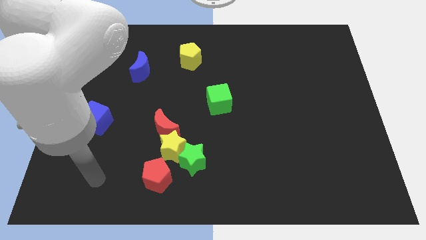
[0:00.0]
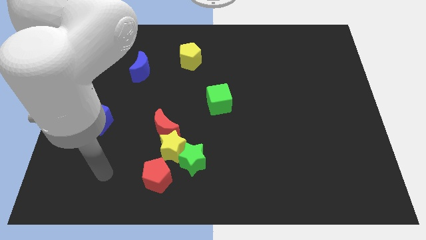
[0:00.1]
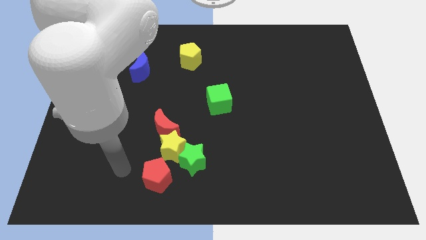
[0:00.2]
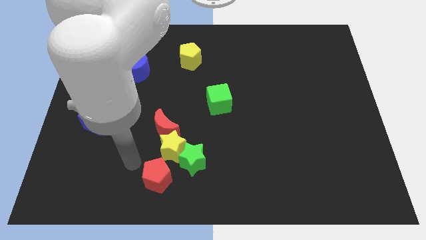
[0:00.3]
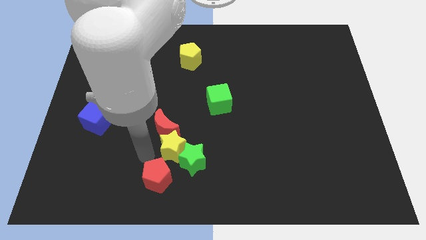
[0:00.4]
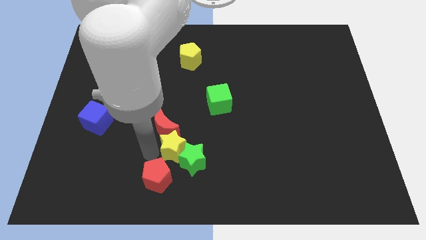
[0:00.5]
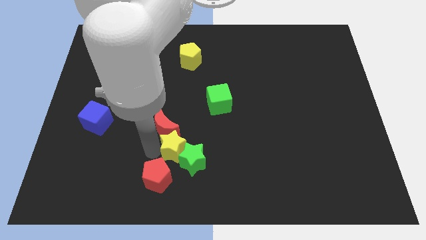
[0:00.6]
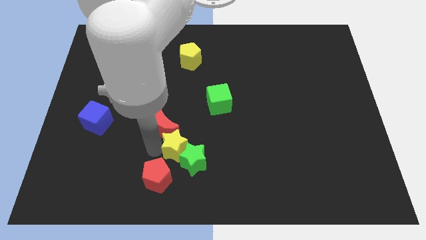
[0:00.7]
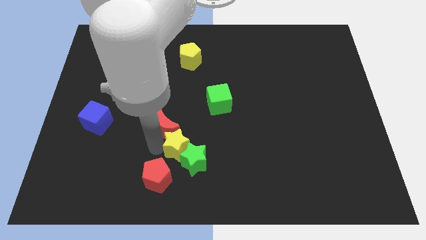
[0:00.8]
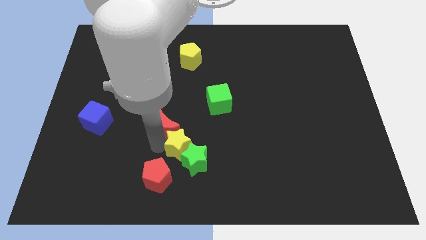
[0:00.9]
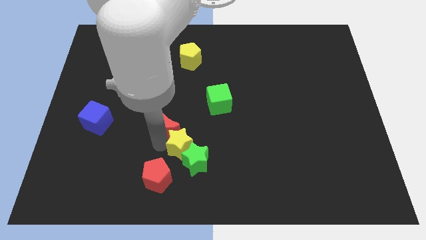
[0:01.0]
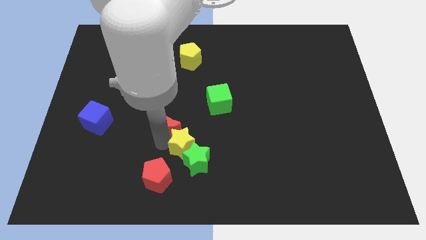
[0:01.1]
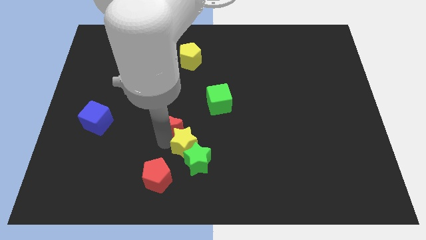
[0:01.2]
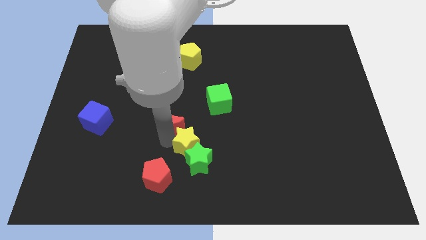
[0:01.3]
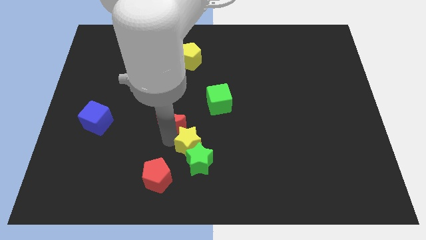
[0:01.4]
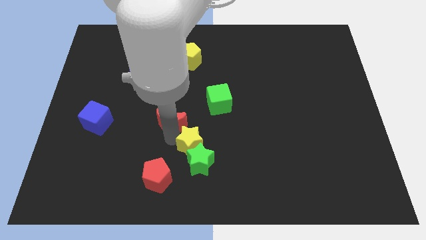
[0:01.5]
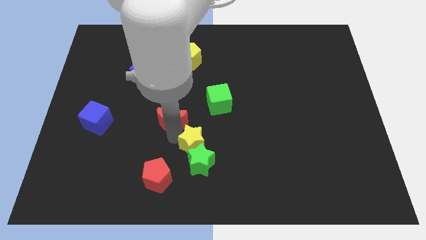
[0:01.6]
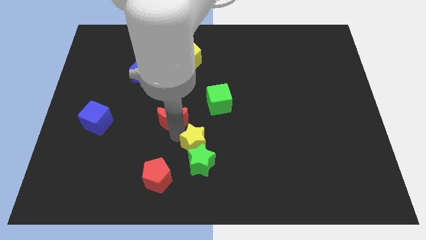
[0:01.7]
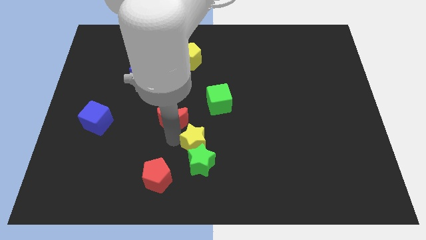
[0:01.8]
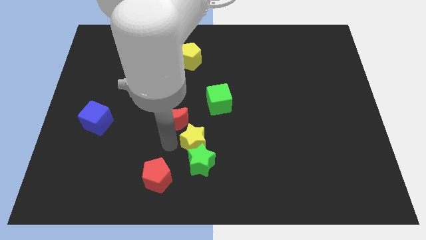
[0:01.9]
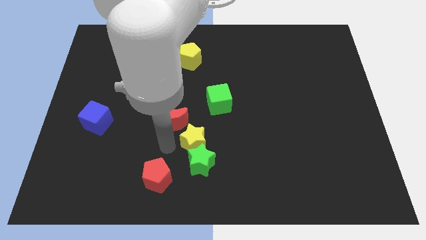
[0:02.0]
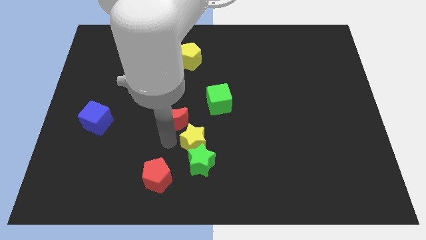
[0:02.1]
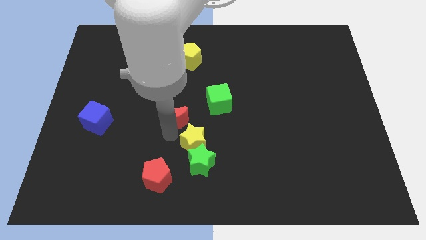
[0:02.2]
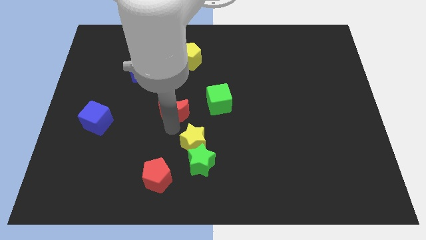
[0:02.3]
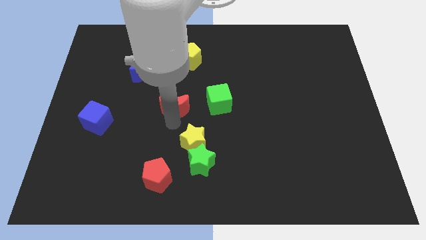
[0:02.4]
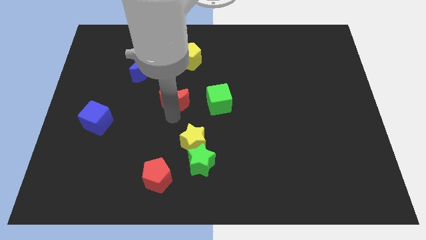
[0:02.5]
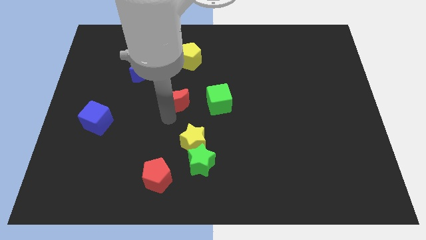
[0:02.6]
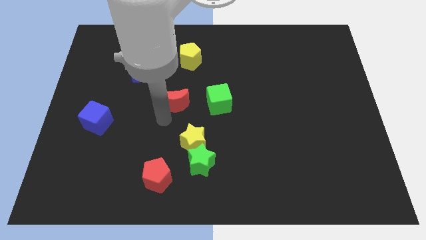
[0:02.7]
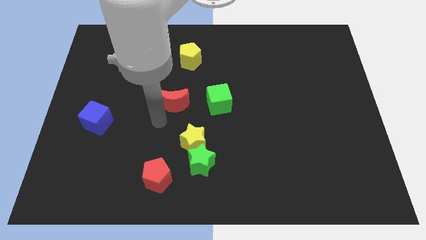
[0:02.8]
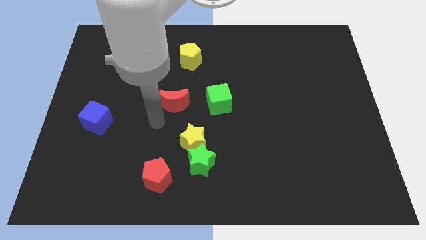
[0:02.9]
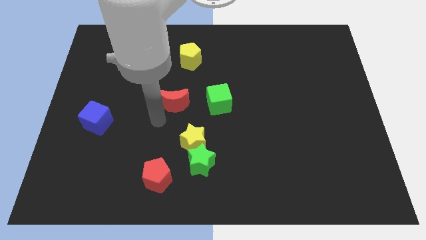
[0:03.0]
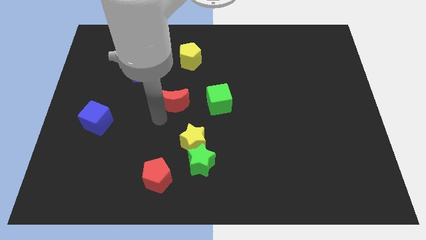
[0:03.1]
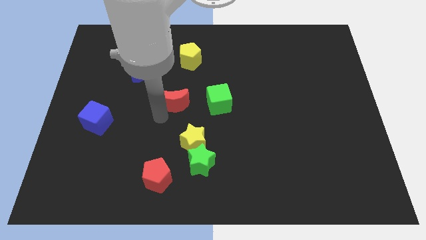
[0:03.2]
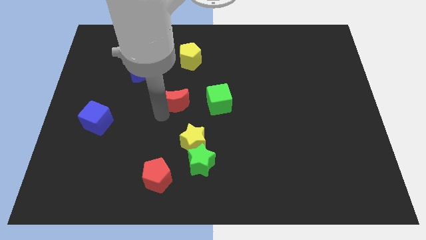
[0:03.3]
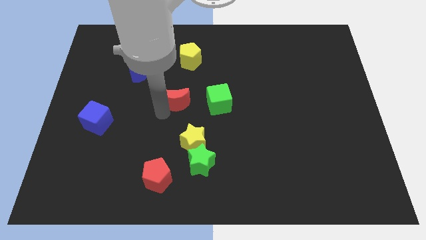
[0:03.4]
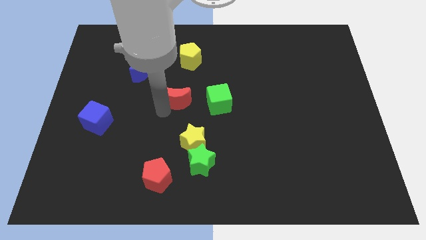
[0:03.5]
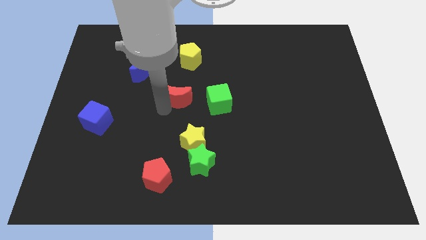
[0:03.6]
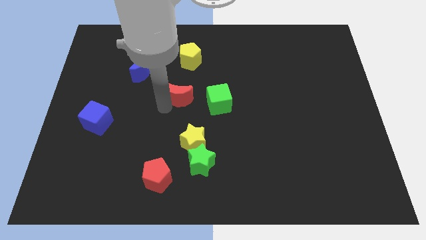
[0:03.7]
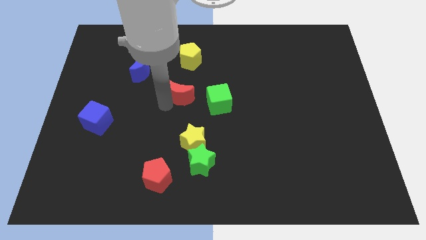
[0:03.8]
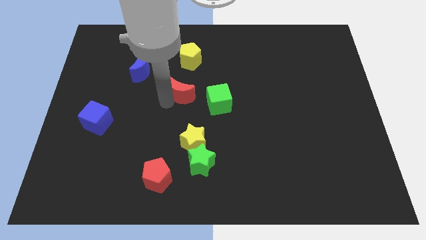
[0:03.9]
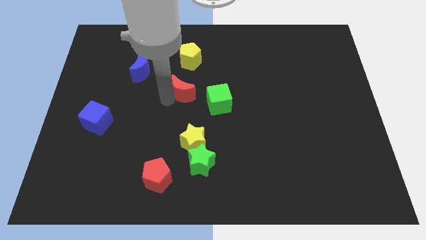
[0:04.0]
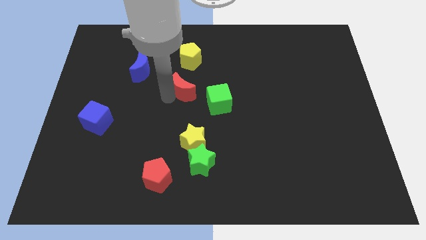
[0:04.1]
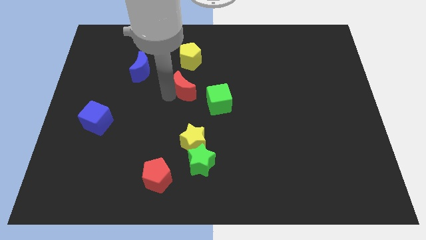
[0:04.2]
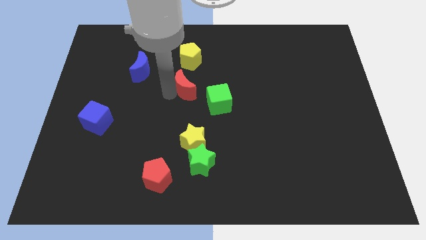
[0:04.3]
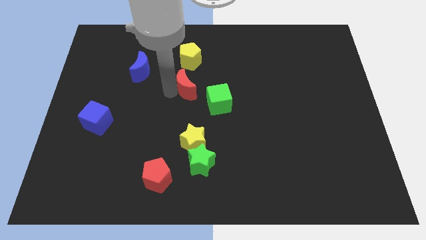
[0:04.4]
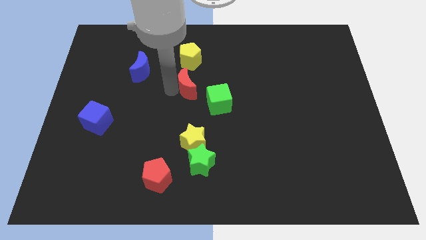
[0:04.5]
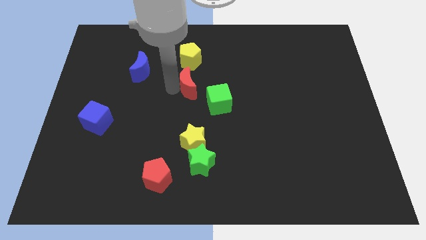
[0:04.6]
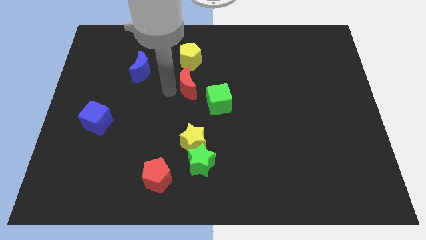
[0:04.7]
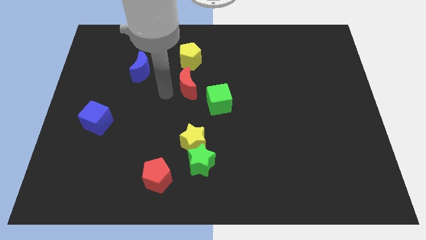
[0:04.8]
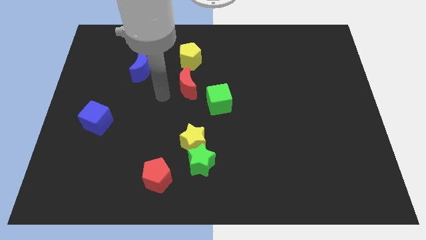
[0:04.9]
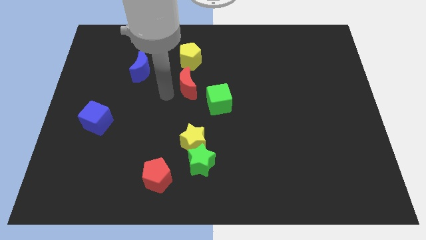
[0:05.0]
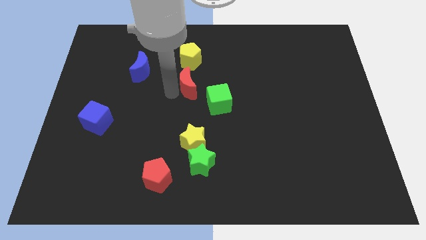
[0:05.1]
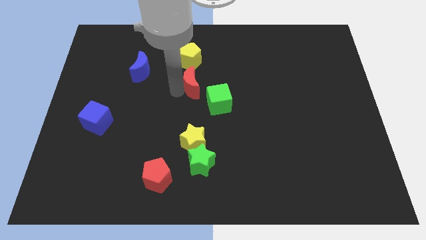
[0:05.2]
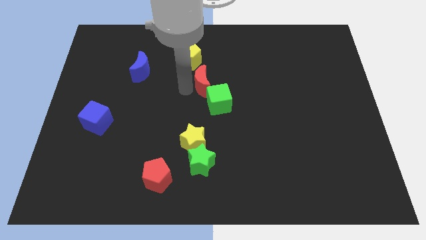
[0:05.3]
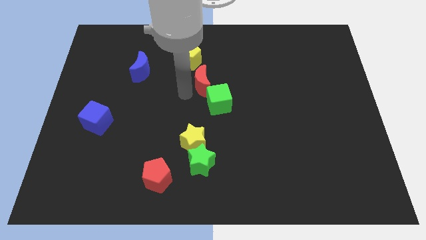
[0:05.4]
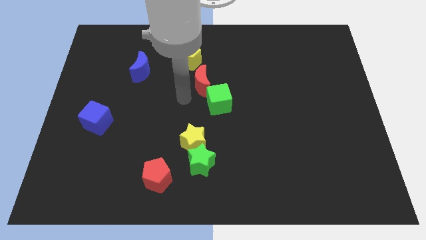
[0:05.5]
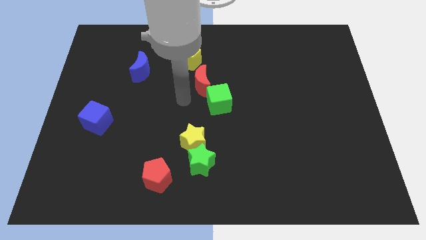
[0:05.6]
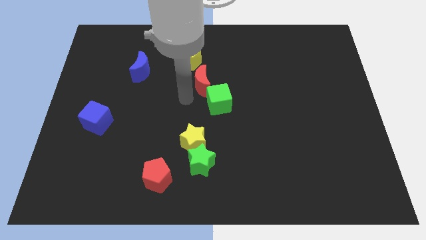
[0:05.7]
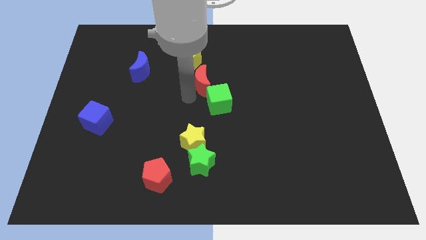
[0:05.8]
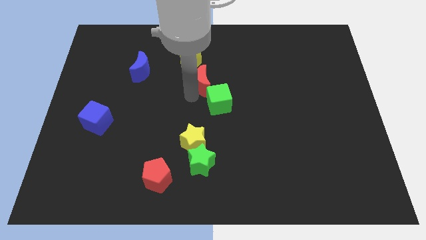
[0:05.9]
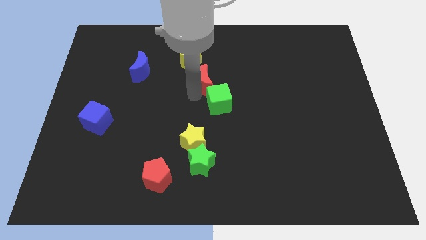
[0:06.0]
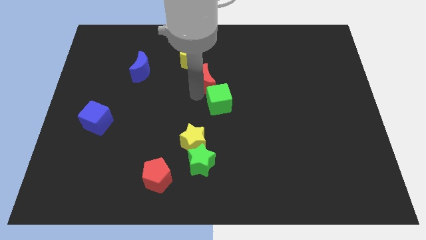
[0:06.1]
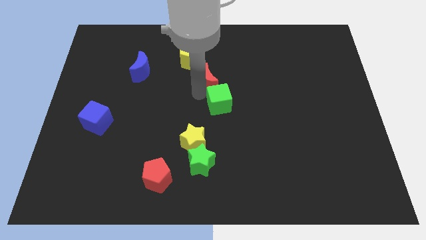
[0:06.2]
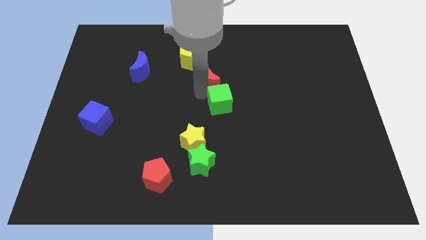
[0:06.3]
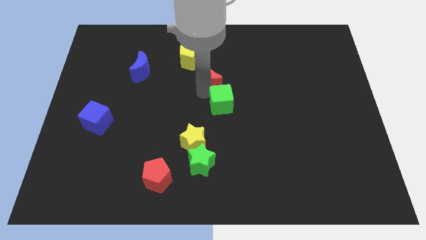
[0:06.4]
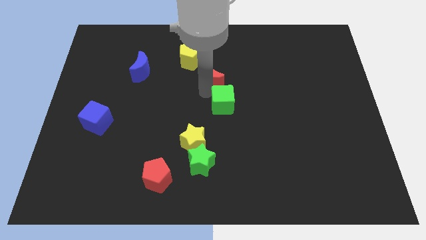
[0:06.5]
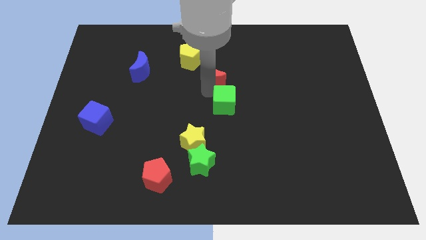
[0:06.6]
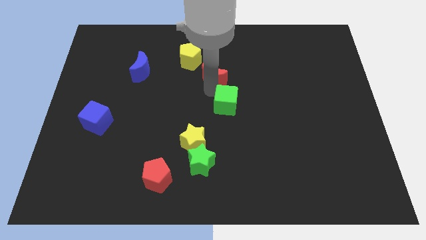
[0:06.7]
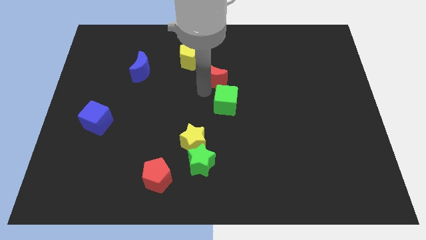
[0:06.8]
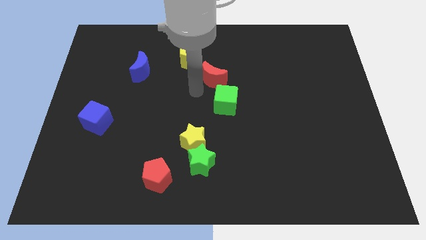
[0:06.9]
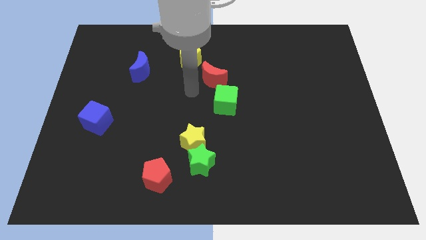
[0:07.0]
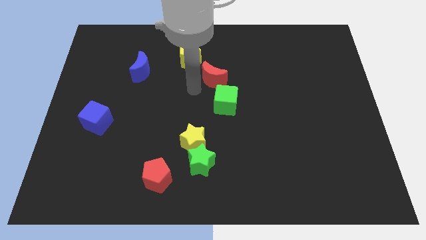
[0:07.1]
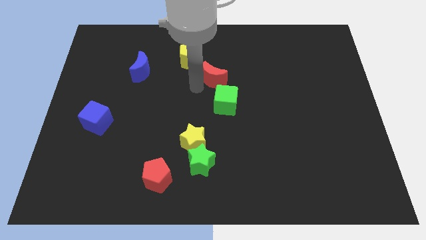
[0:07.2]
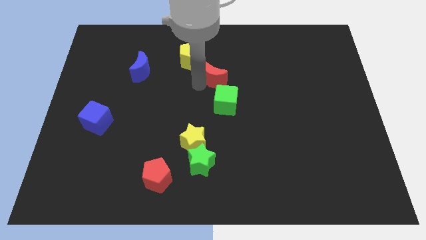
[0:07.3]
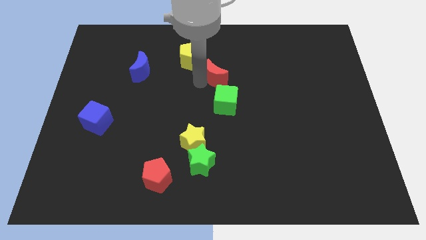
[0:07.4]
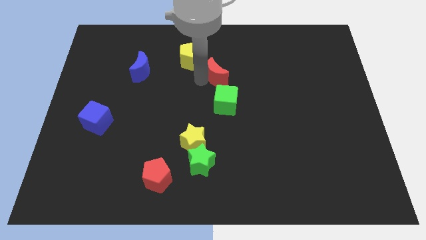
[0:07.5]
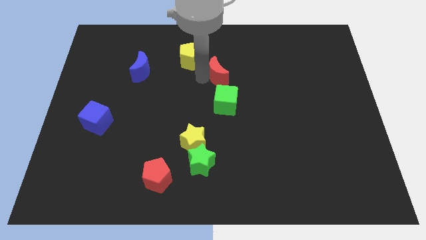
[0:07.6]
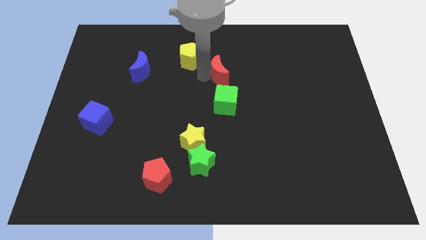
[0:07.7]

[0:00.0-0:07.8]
slide the red moon diagonally up and to the right
